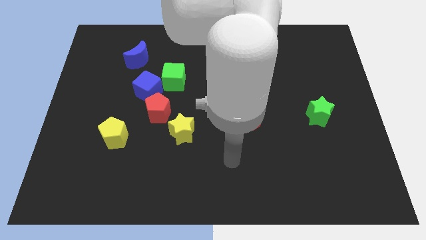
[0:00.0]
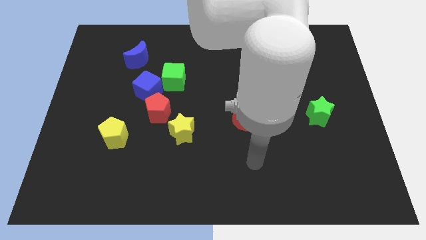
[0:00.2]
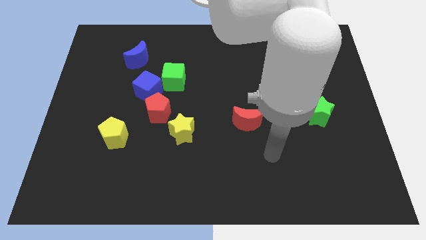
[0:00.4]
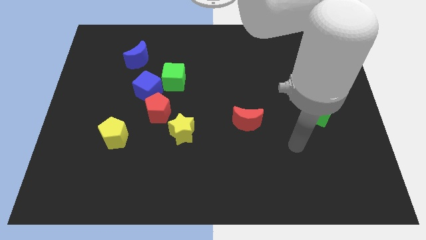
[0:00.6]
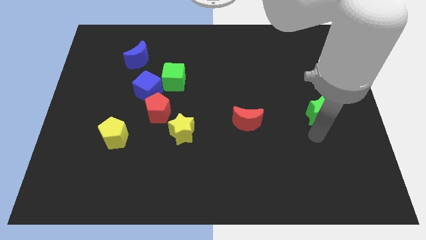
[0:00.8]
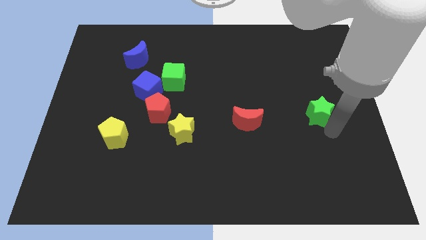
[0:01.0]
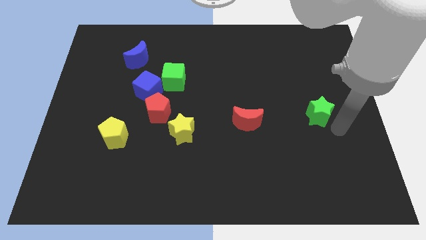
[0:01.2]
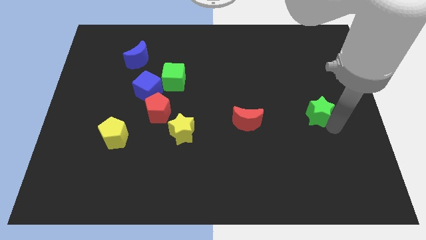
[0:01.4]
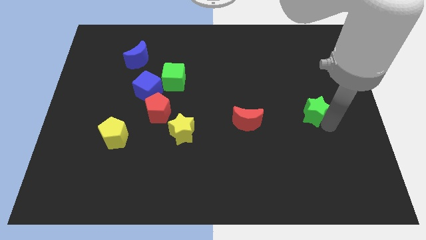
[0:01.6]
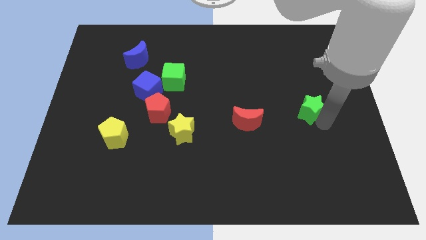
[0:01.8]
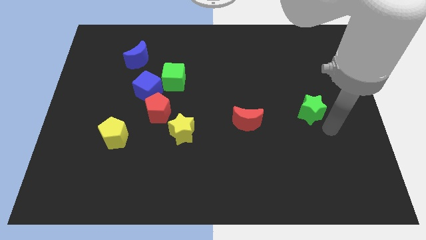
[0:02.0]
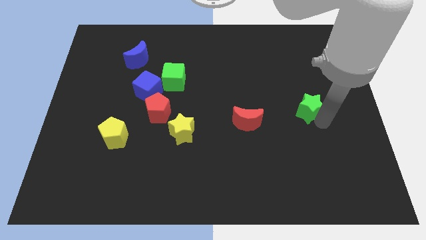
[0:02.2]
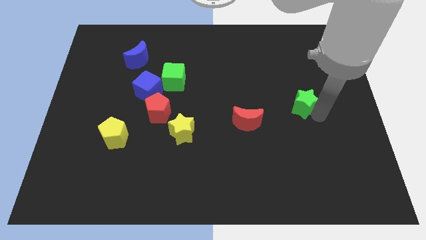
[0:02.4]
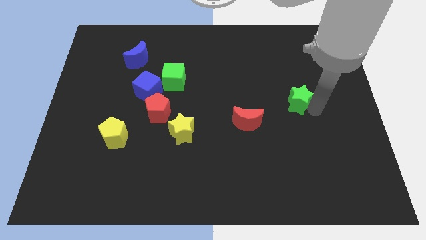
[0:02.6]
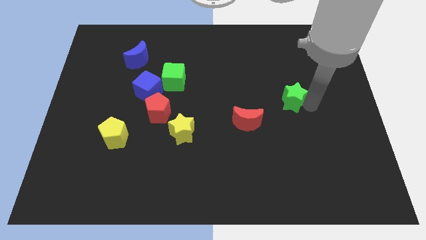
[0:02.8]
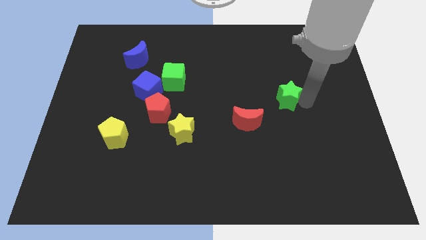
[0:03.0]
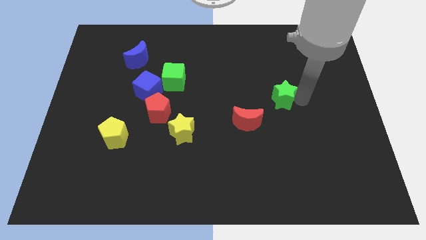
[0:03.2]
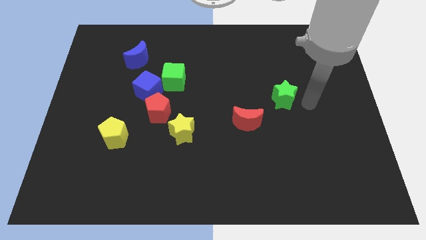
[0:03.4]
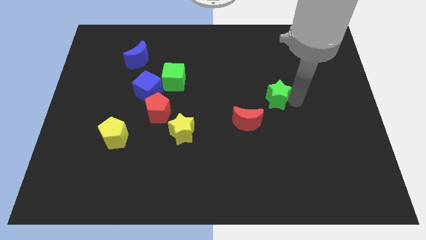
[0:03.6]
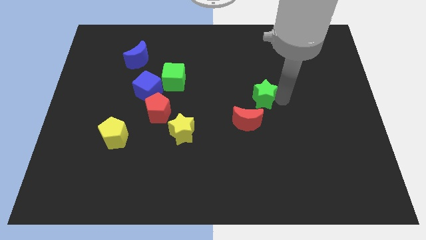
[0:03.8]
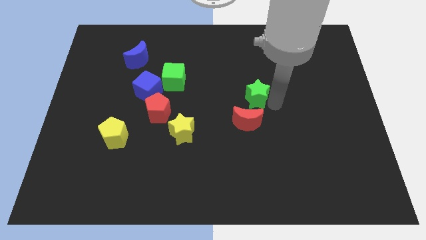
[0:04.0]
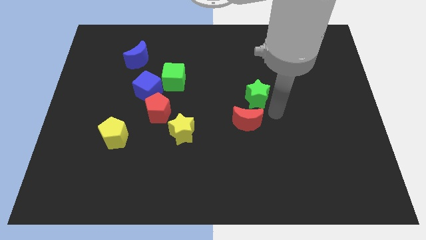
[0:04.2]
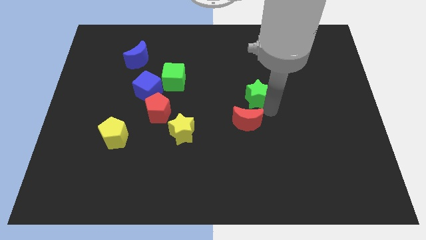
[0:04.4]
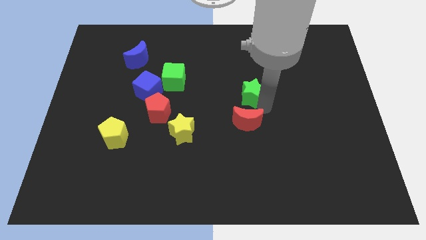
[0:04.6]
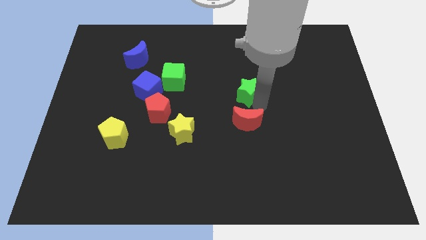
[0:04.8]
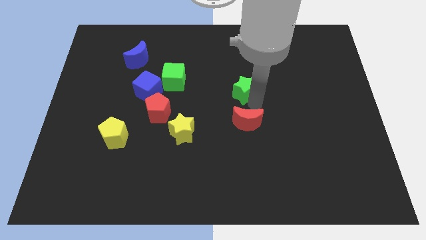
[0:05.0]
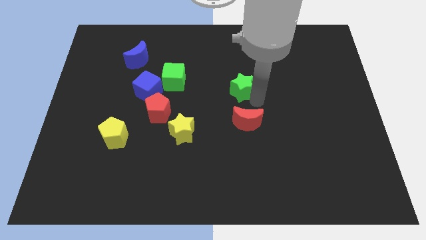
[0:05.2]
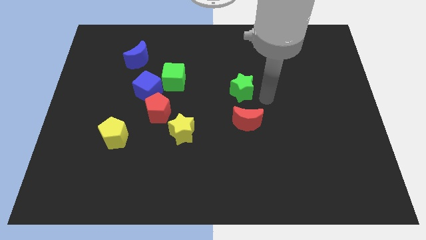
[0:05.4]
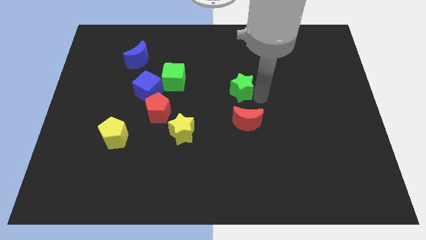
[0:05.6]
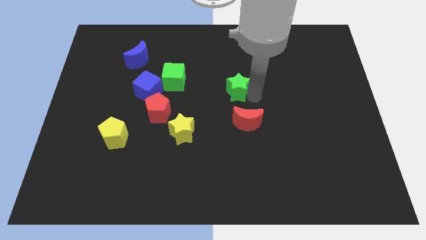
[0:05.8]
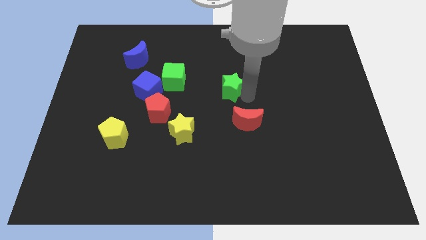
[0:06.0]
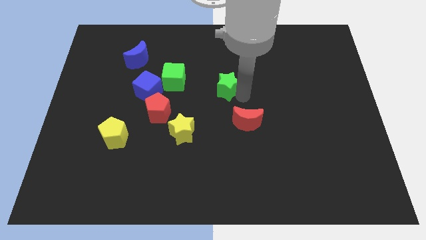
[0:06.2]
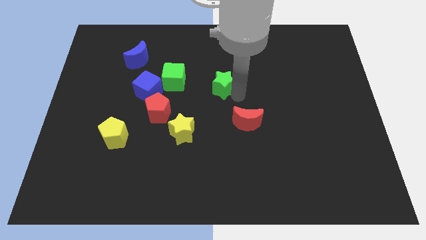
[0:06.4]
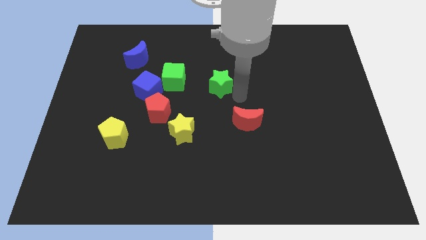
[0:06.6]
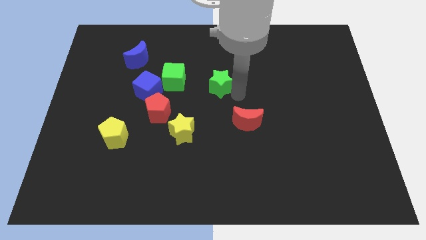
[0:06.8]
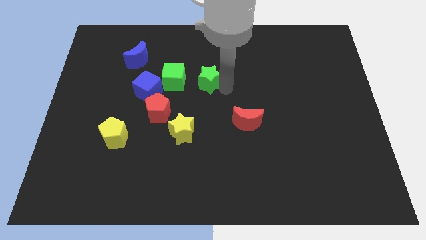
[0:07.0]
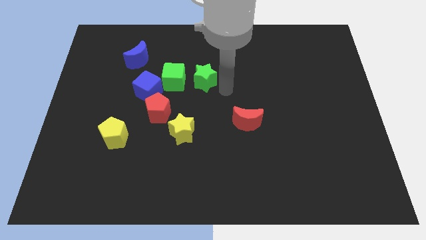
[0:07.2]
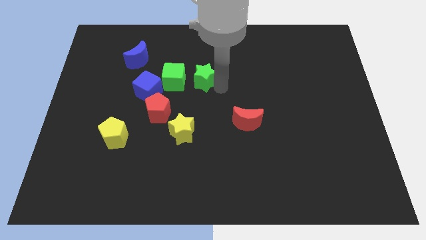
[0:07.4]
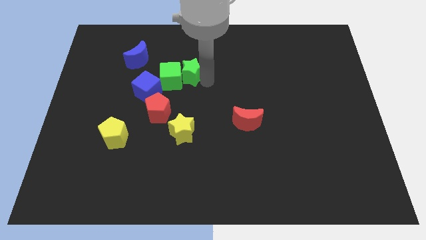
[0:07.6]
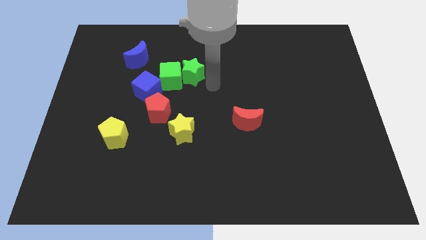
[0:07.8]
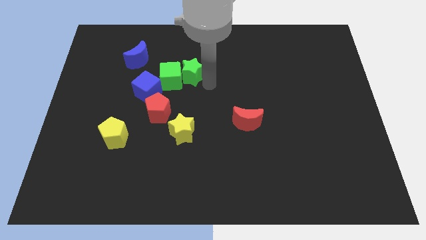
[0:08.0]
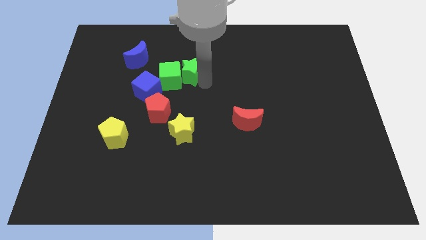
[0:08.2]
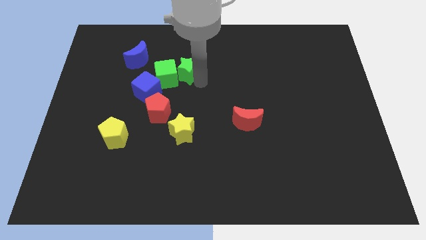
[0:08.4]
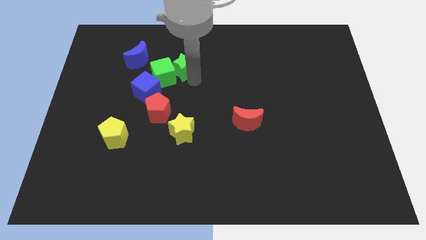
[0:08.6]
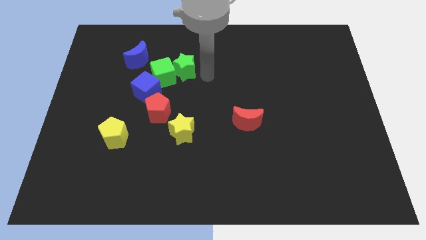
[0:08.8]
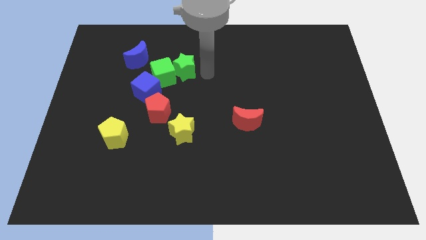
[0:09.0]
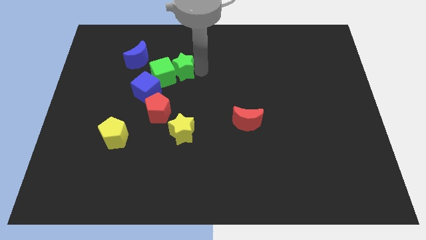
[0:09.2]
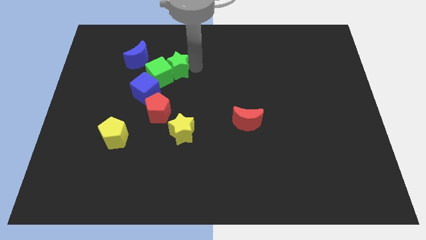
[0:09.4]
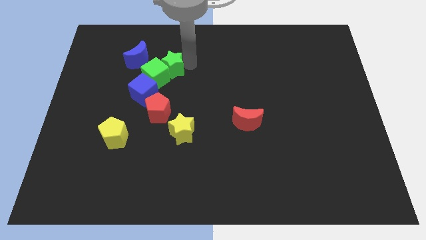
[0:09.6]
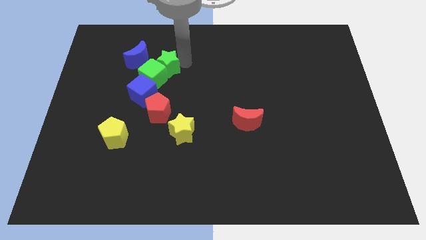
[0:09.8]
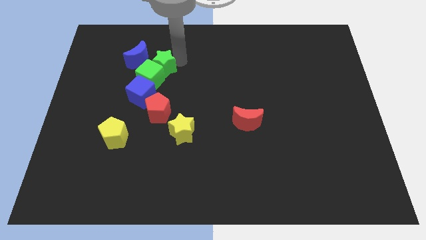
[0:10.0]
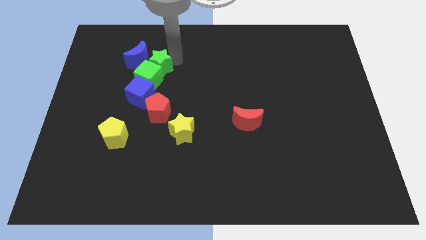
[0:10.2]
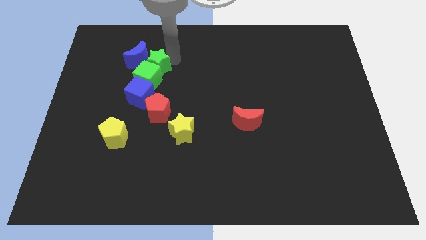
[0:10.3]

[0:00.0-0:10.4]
push the green star close to the blue moon
